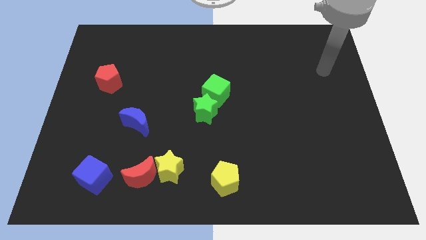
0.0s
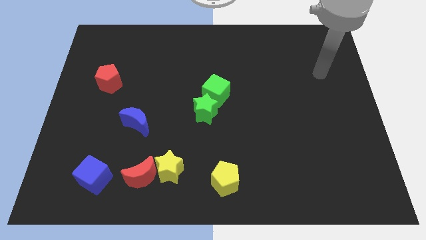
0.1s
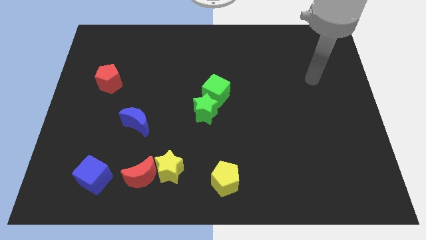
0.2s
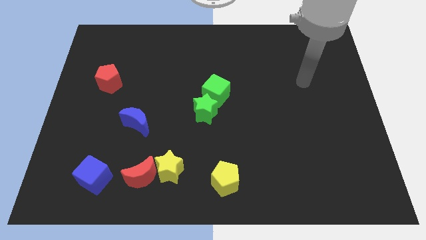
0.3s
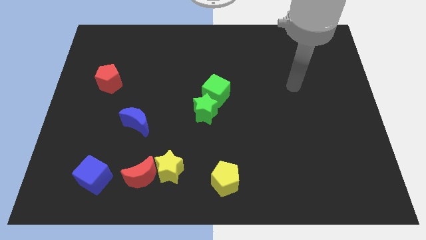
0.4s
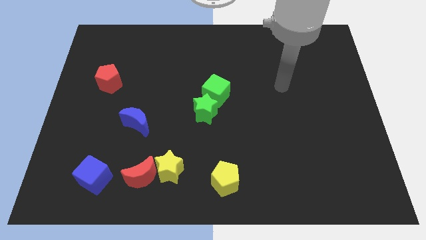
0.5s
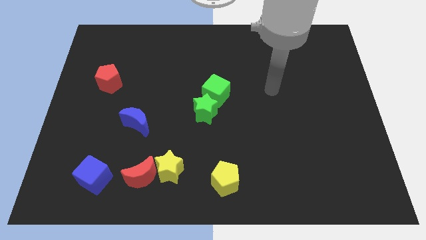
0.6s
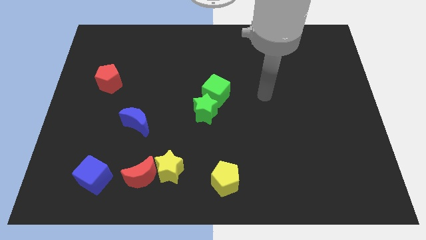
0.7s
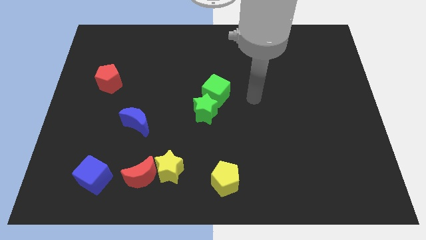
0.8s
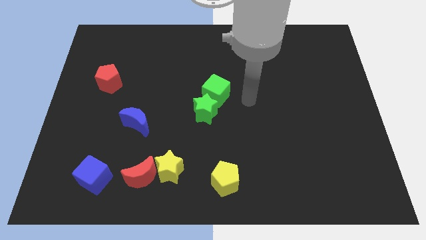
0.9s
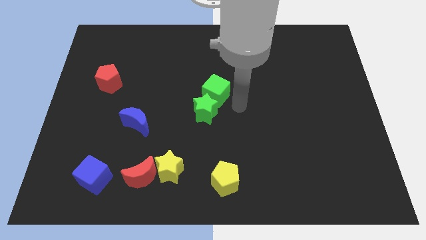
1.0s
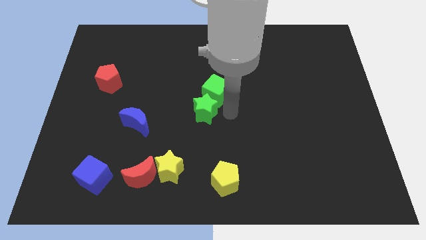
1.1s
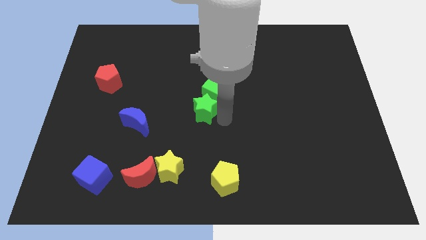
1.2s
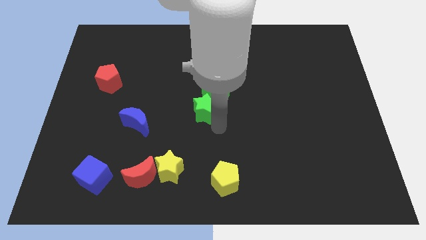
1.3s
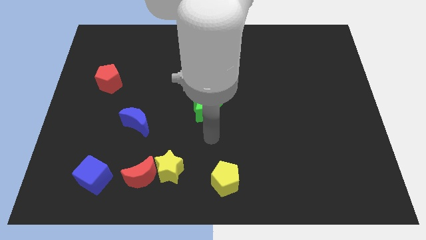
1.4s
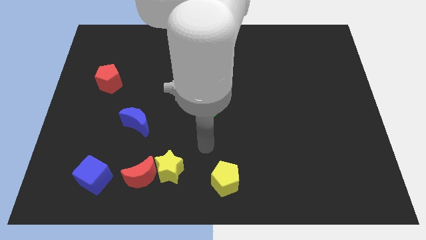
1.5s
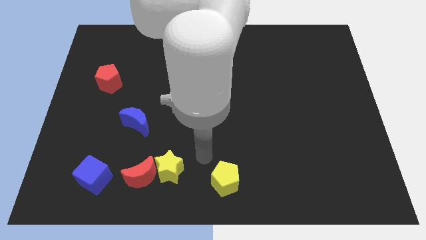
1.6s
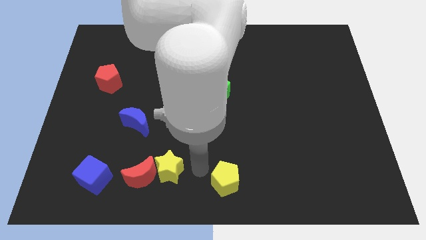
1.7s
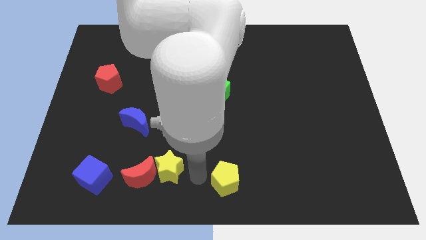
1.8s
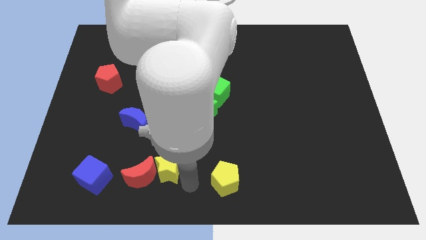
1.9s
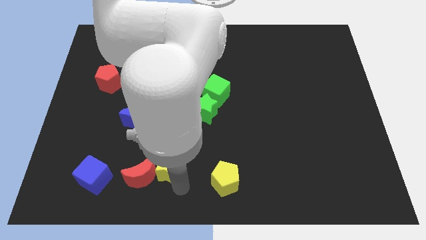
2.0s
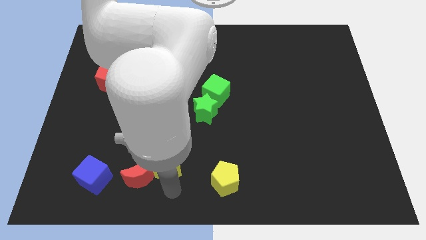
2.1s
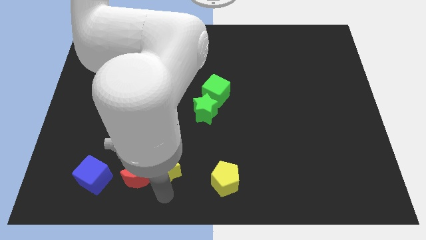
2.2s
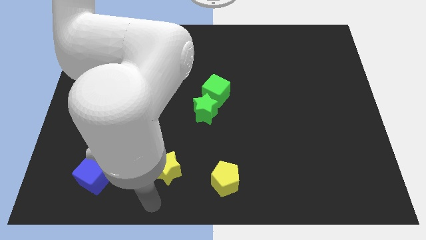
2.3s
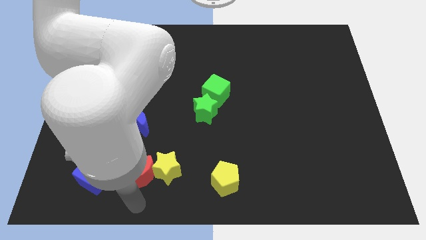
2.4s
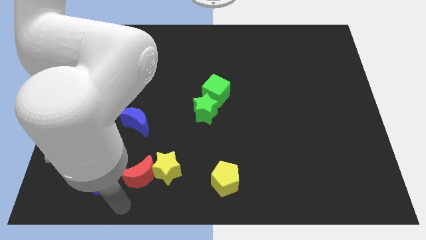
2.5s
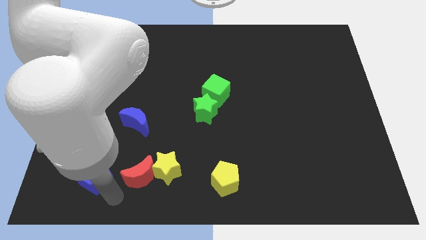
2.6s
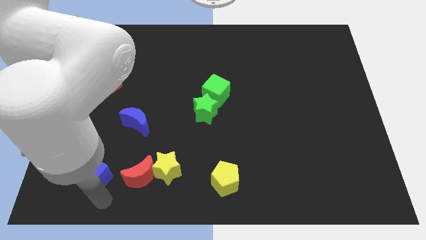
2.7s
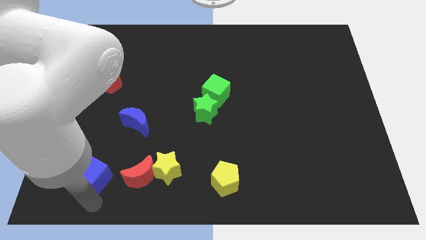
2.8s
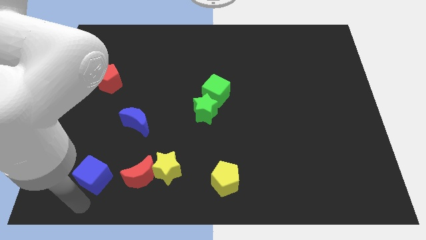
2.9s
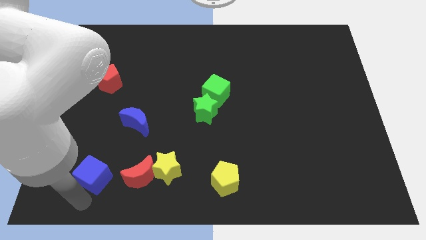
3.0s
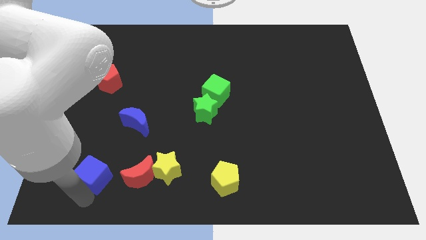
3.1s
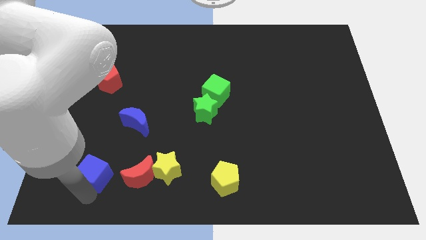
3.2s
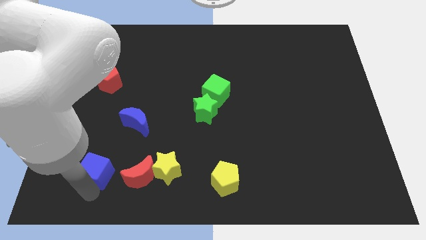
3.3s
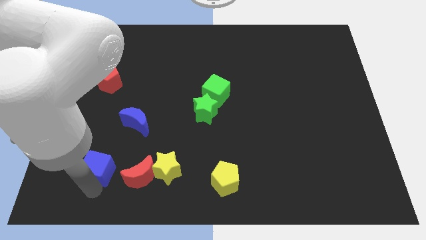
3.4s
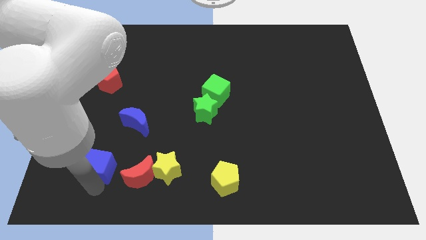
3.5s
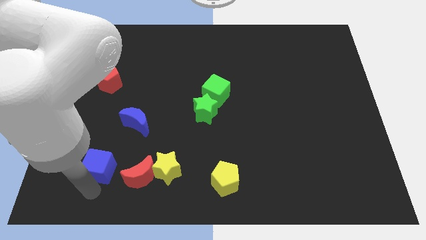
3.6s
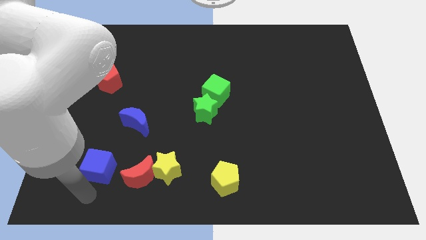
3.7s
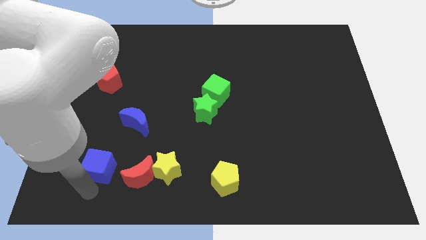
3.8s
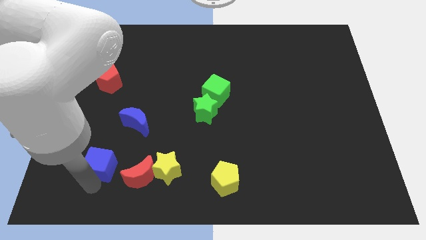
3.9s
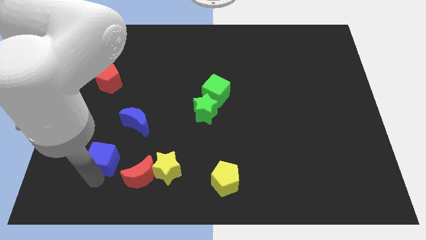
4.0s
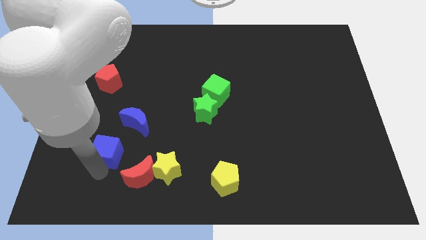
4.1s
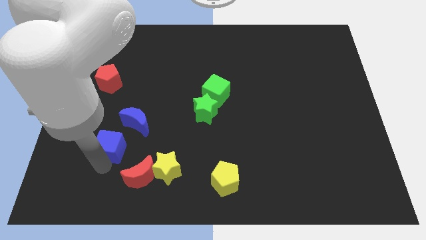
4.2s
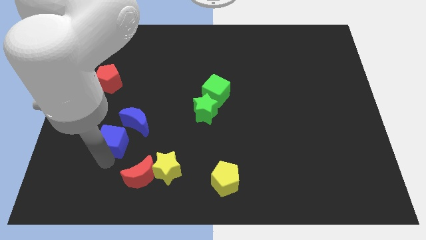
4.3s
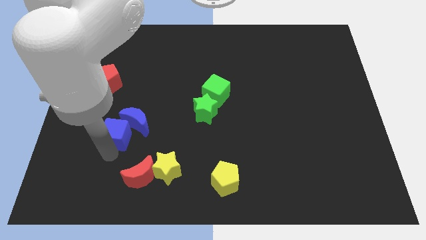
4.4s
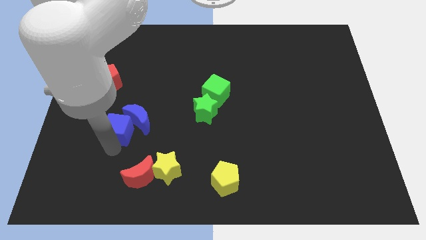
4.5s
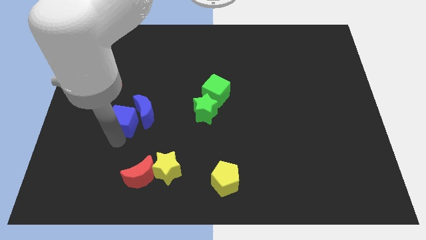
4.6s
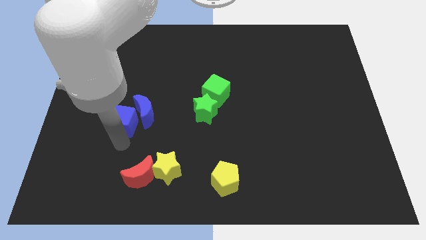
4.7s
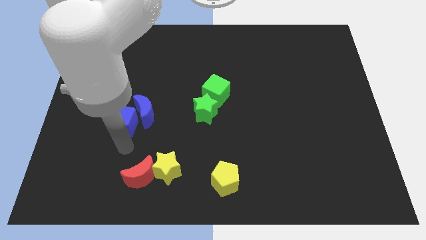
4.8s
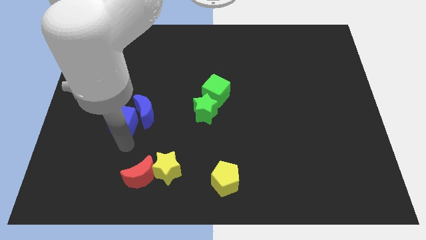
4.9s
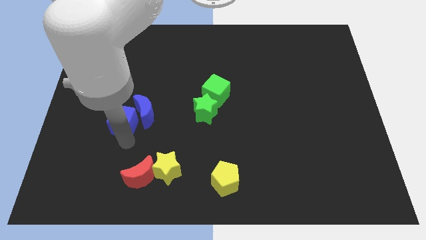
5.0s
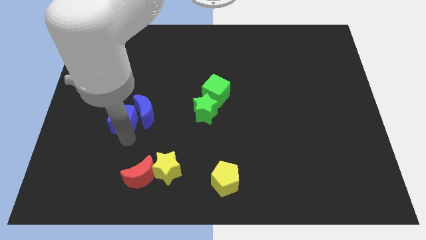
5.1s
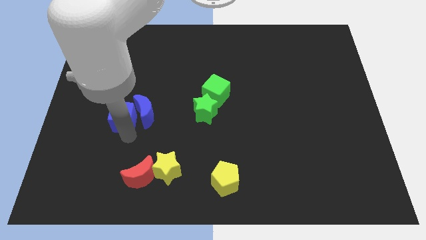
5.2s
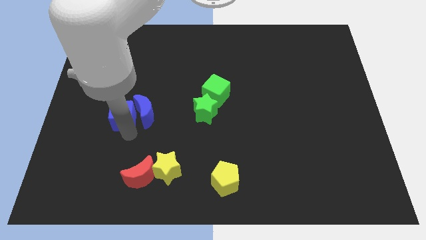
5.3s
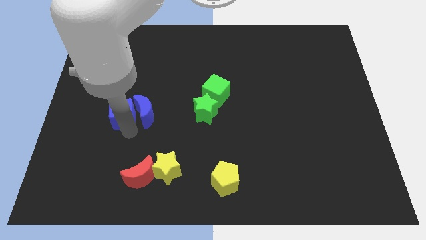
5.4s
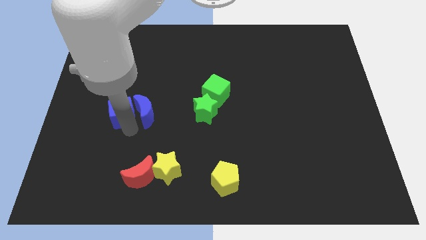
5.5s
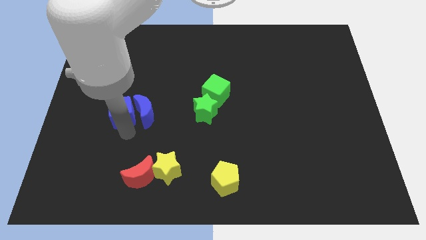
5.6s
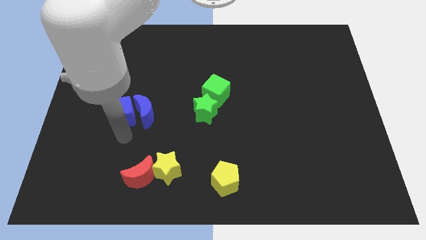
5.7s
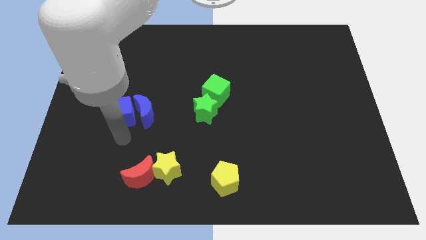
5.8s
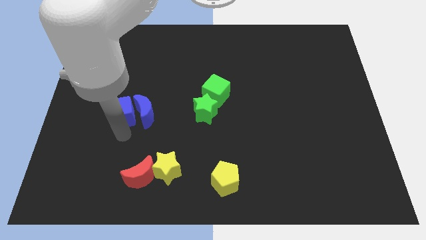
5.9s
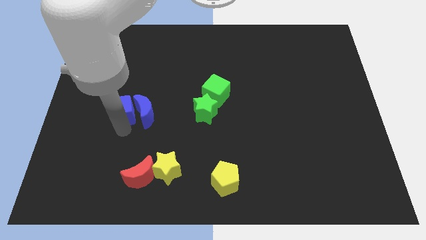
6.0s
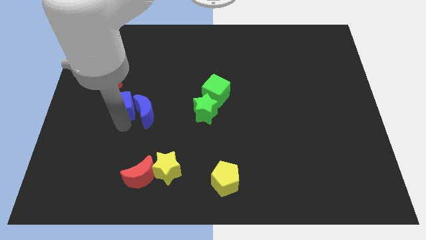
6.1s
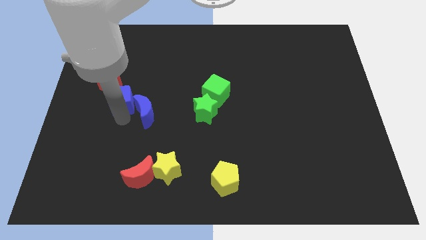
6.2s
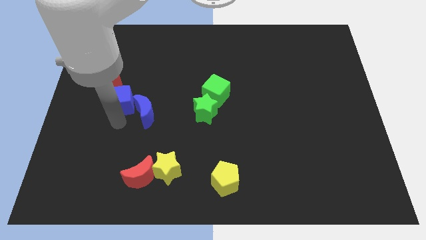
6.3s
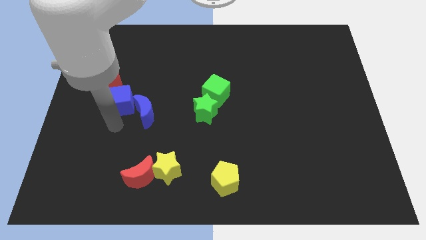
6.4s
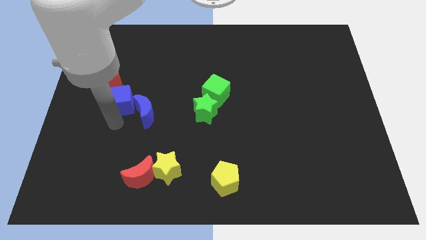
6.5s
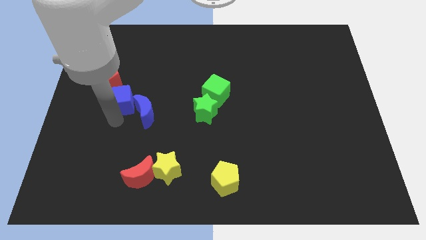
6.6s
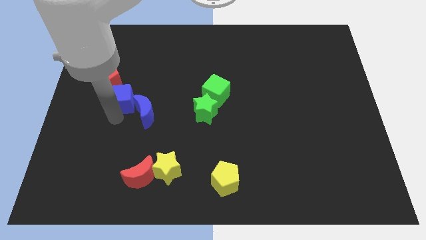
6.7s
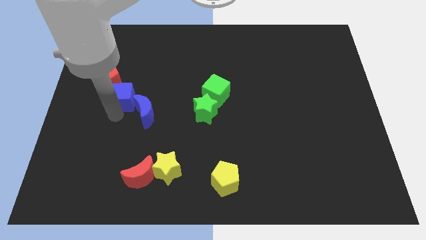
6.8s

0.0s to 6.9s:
slide the blue cube upwards

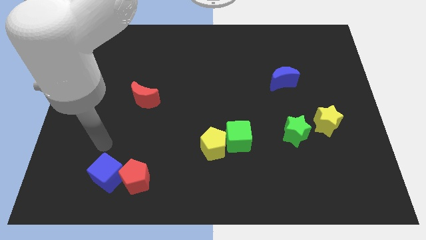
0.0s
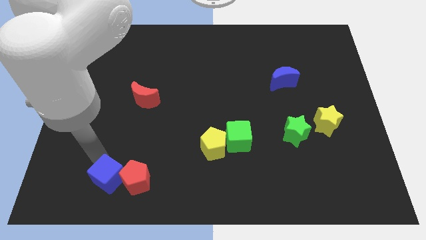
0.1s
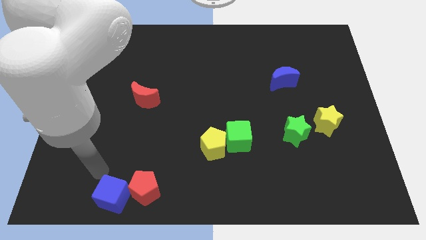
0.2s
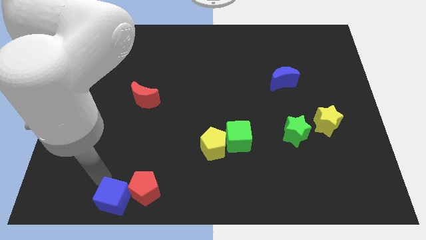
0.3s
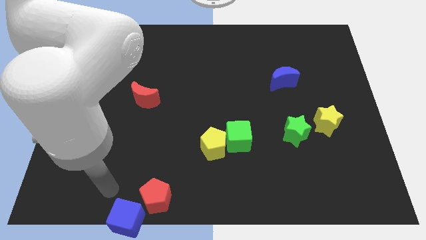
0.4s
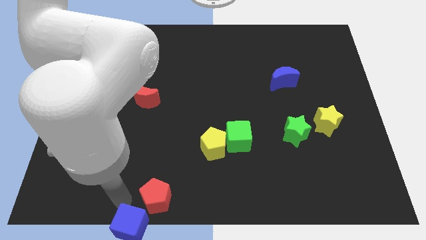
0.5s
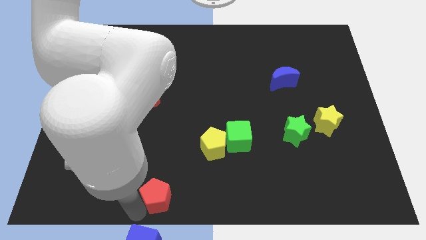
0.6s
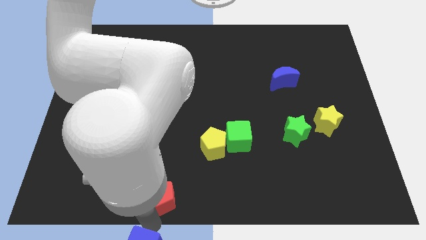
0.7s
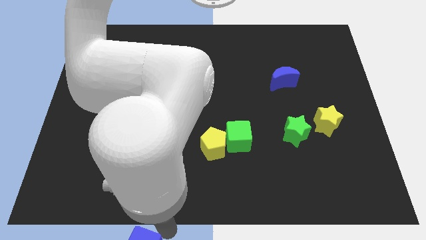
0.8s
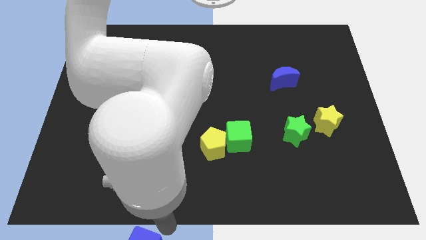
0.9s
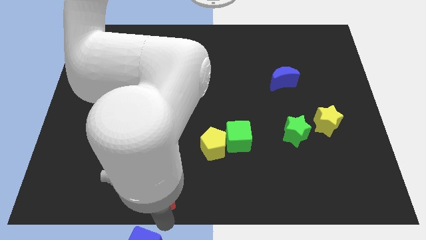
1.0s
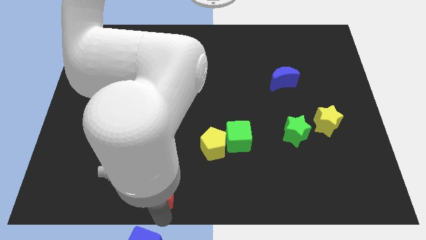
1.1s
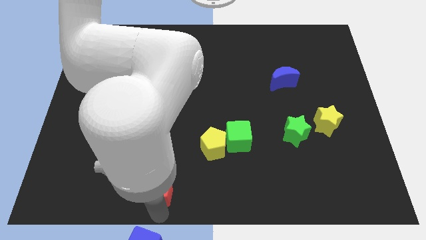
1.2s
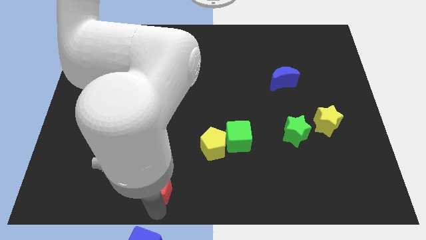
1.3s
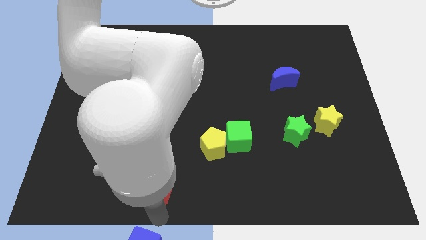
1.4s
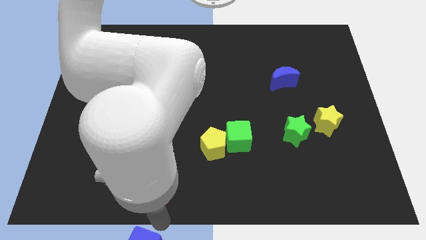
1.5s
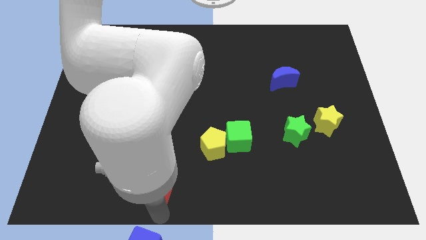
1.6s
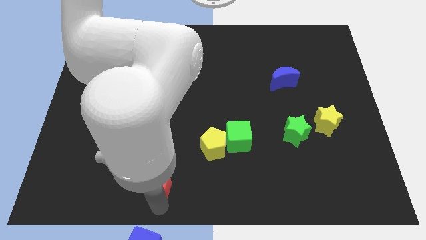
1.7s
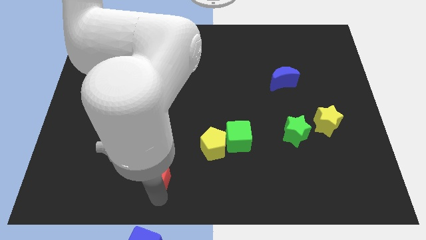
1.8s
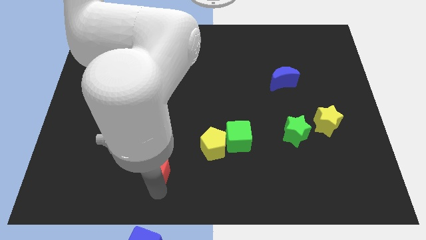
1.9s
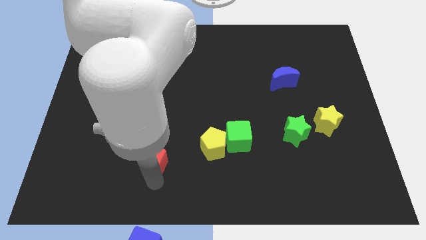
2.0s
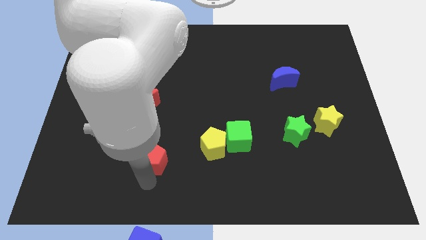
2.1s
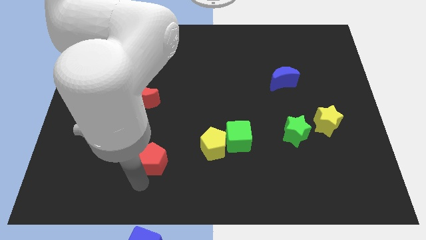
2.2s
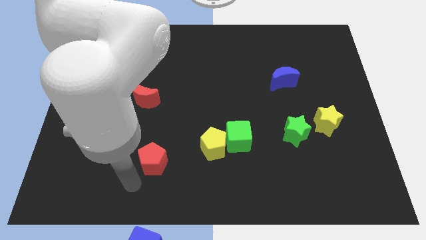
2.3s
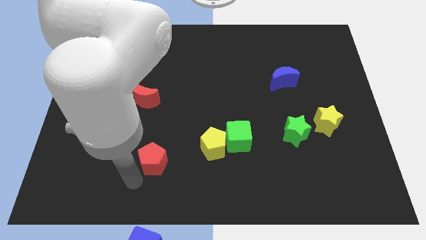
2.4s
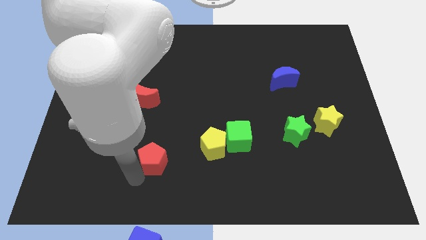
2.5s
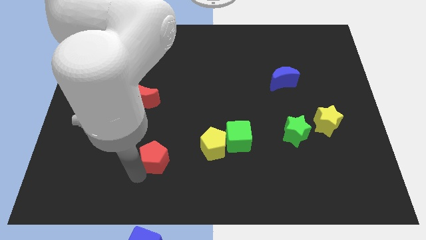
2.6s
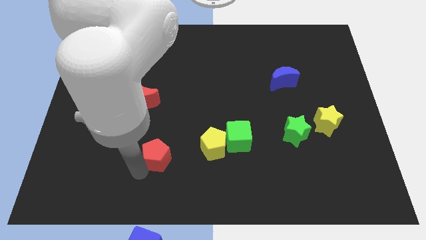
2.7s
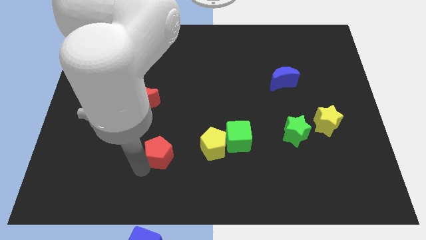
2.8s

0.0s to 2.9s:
move the red pentagon a bit up and right
